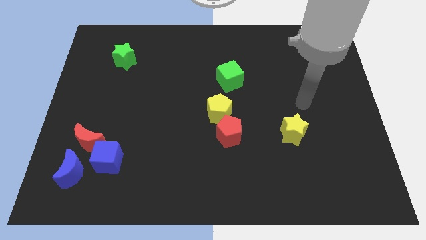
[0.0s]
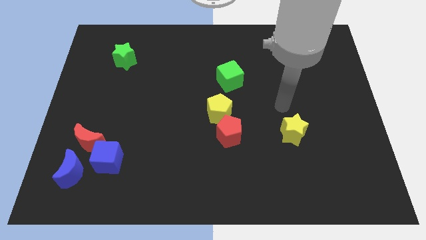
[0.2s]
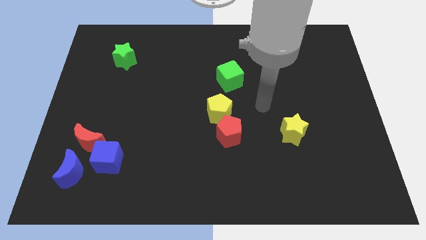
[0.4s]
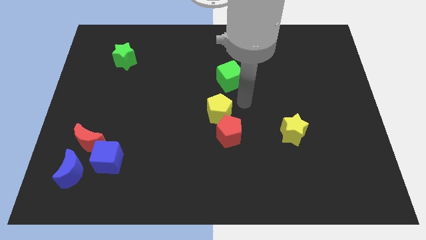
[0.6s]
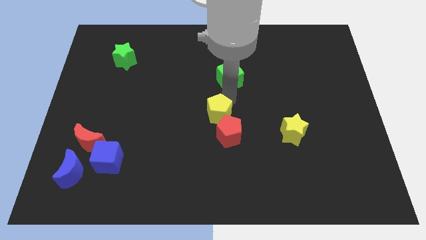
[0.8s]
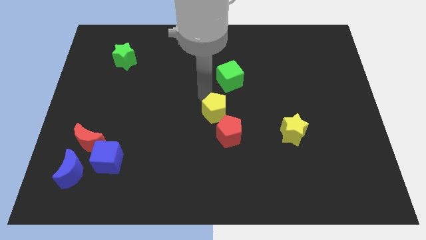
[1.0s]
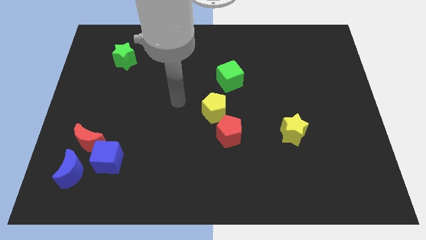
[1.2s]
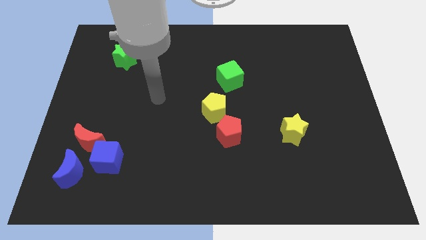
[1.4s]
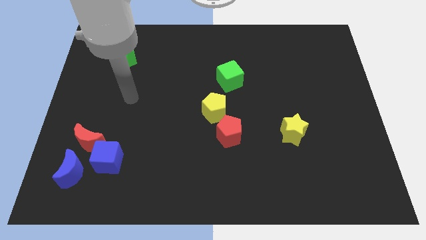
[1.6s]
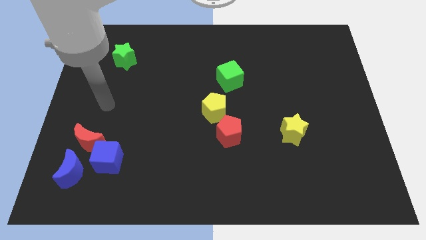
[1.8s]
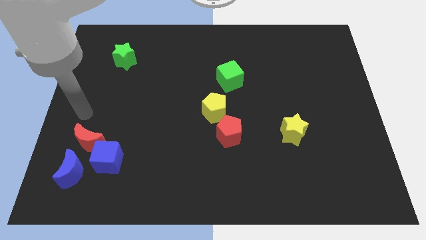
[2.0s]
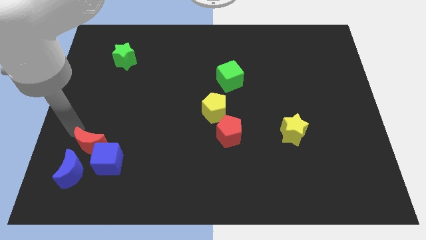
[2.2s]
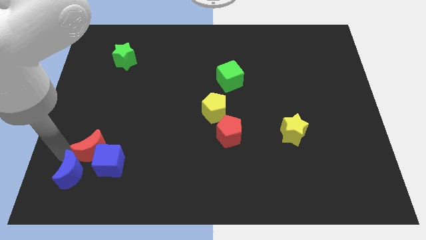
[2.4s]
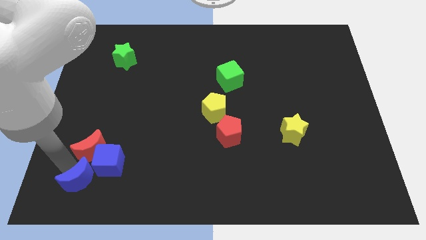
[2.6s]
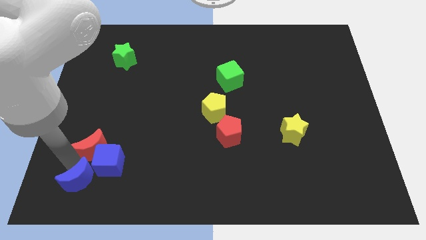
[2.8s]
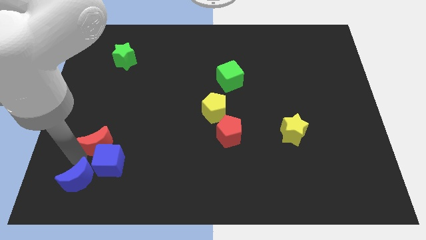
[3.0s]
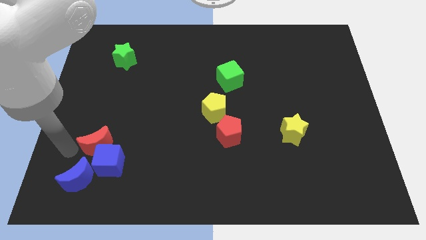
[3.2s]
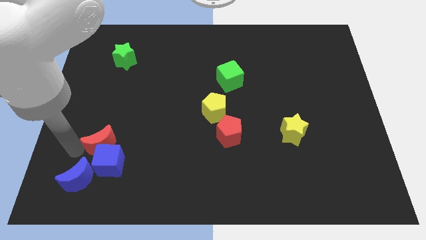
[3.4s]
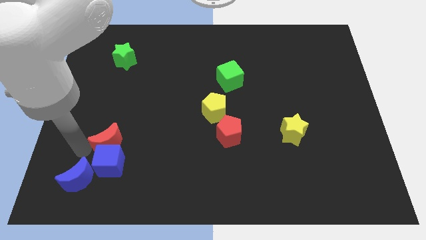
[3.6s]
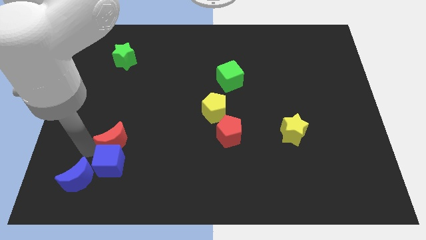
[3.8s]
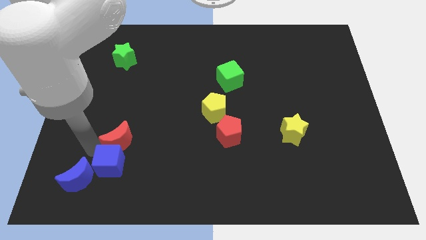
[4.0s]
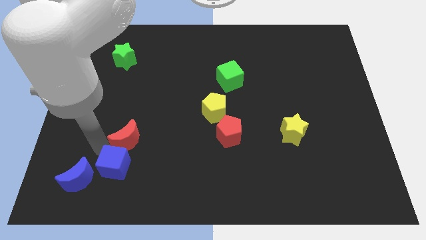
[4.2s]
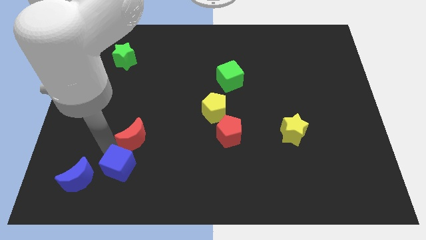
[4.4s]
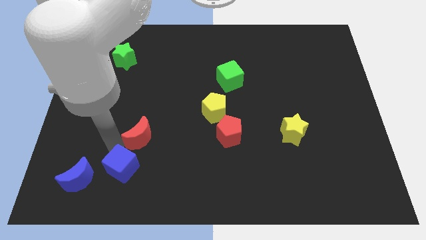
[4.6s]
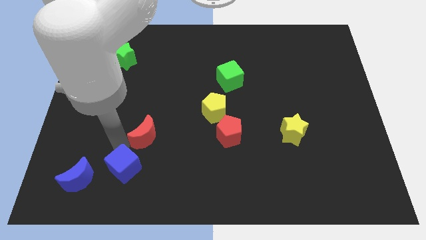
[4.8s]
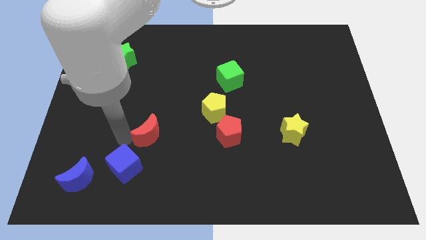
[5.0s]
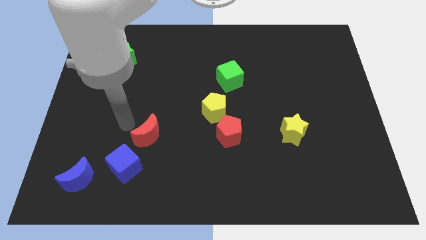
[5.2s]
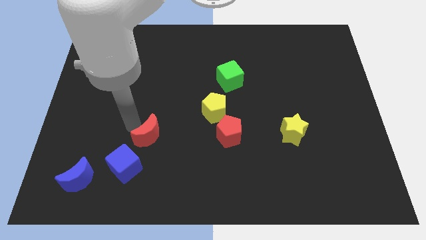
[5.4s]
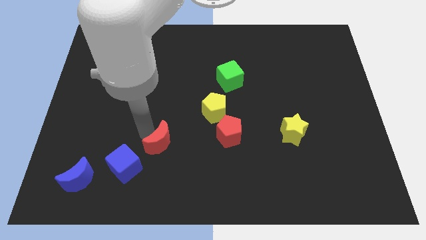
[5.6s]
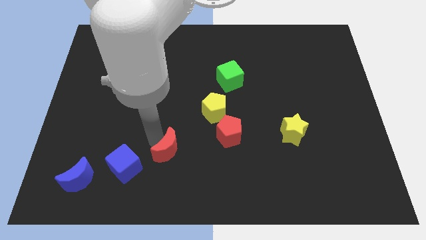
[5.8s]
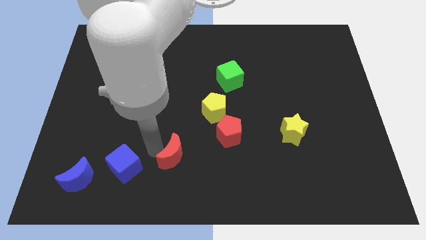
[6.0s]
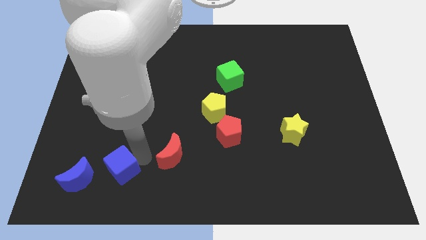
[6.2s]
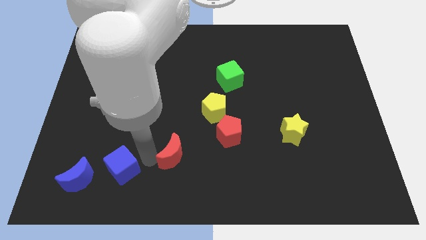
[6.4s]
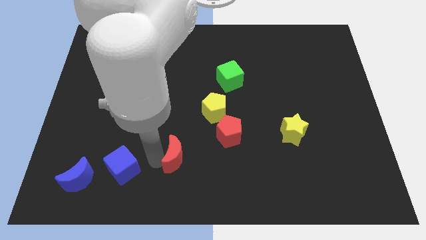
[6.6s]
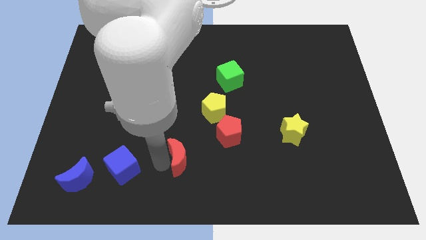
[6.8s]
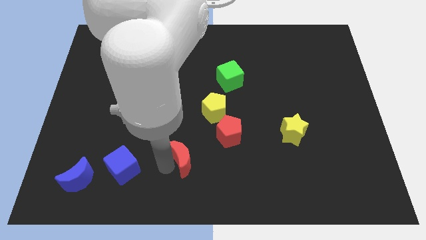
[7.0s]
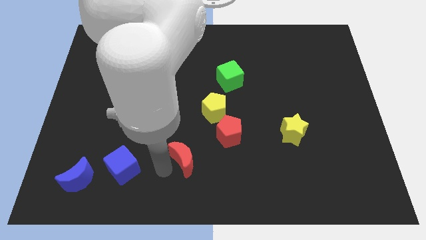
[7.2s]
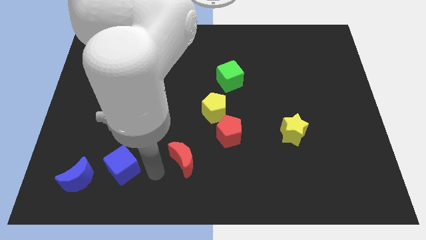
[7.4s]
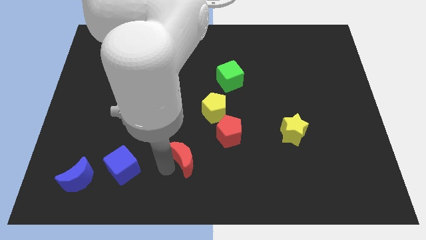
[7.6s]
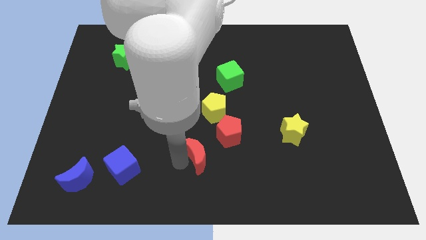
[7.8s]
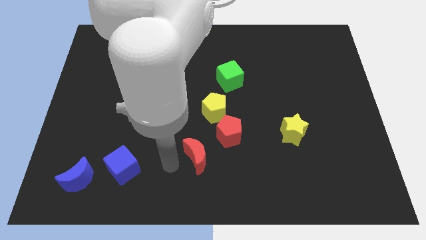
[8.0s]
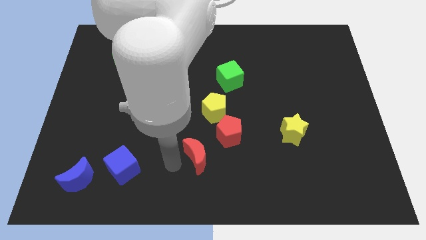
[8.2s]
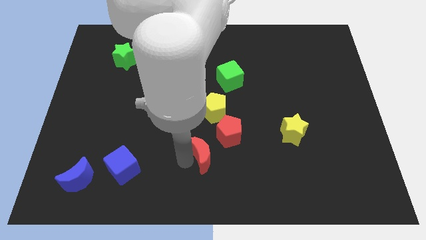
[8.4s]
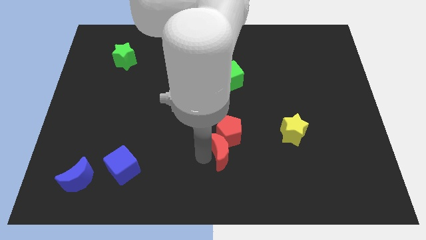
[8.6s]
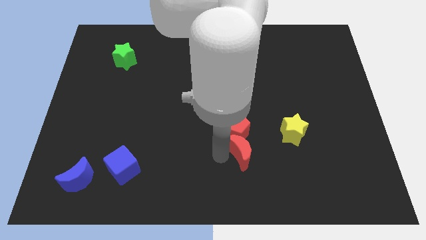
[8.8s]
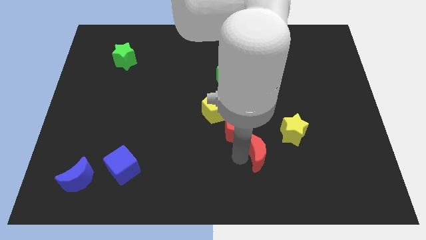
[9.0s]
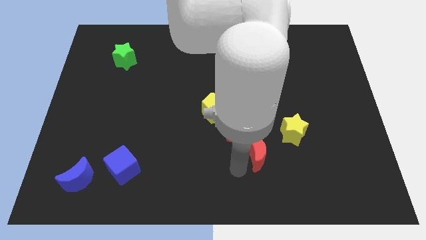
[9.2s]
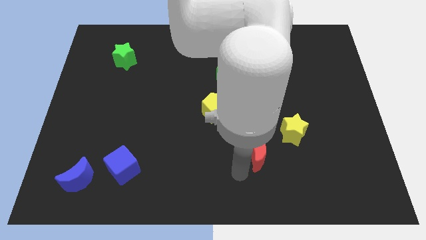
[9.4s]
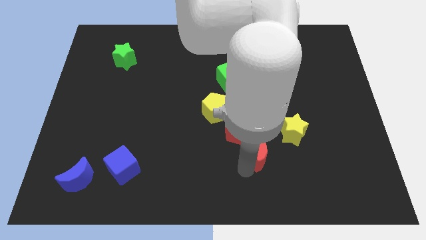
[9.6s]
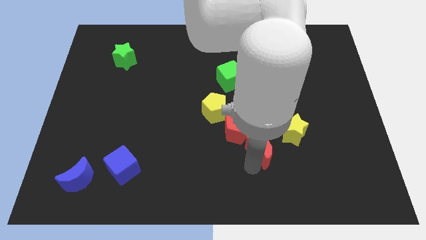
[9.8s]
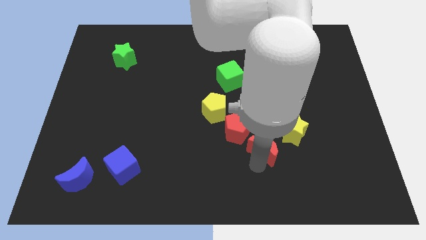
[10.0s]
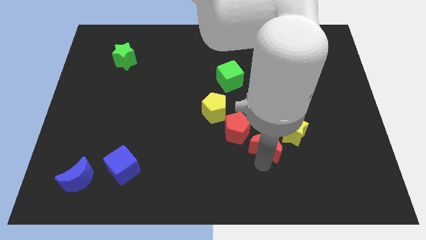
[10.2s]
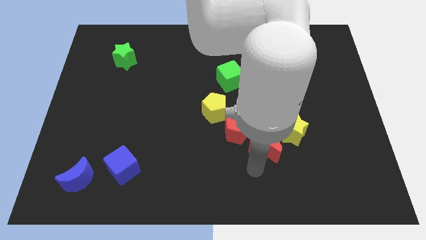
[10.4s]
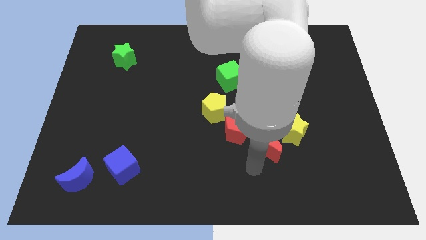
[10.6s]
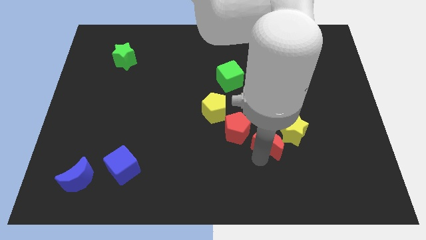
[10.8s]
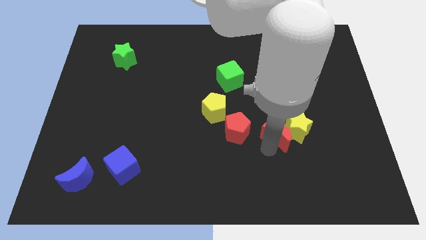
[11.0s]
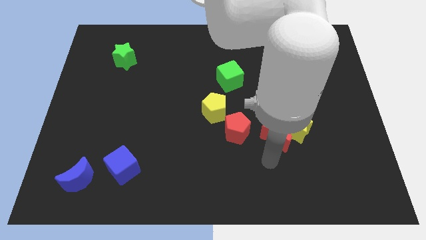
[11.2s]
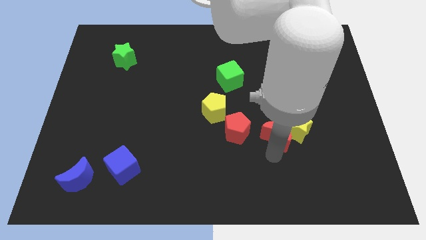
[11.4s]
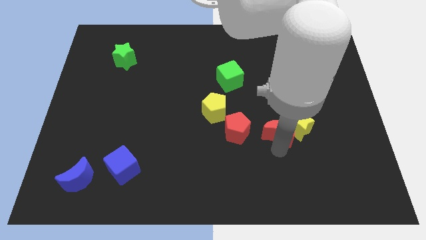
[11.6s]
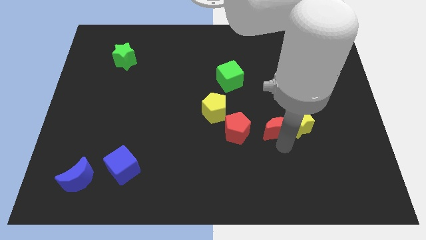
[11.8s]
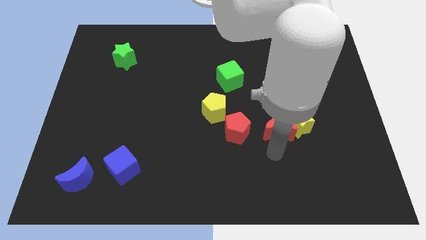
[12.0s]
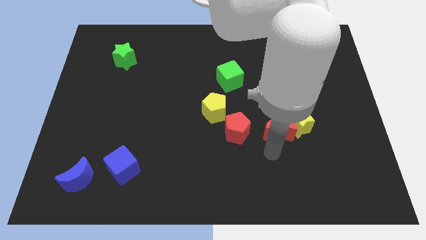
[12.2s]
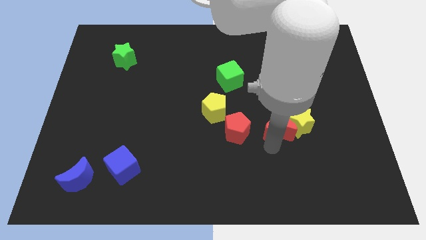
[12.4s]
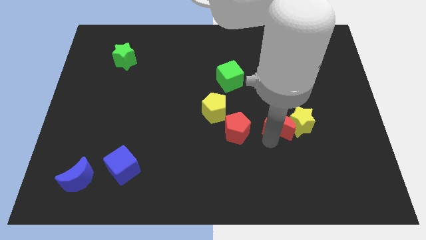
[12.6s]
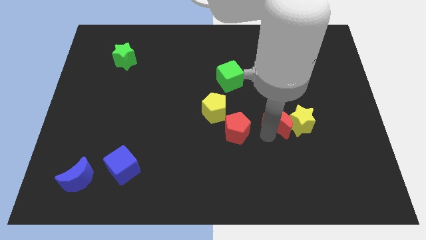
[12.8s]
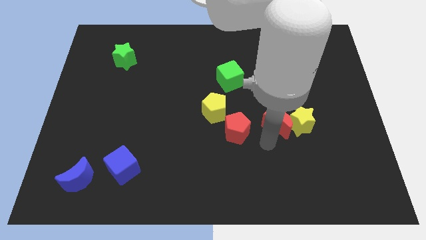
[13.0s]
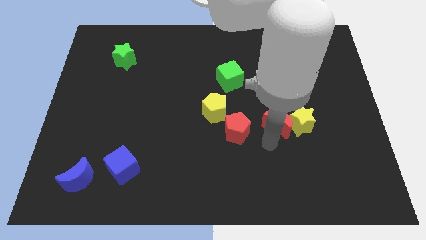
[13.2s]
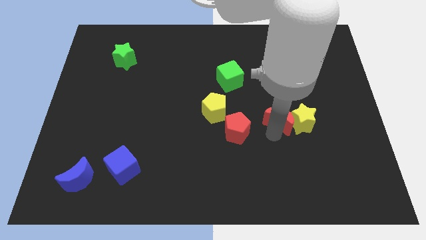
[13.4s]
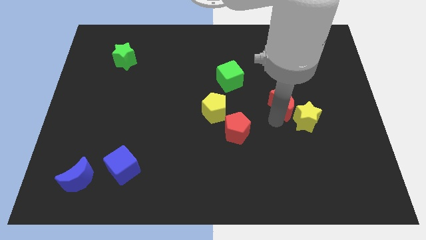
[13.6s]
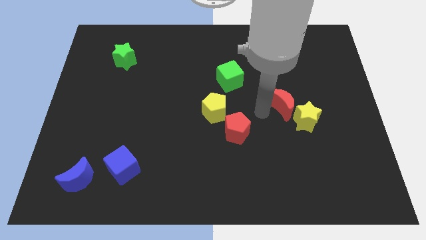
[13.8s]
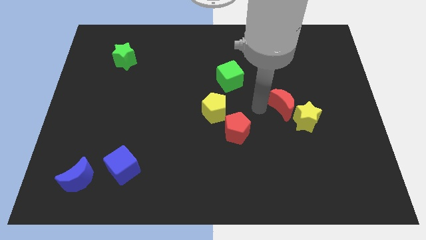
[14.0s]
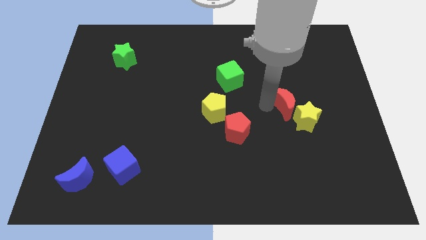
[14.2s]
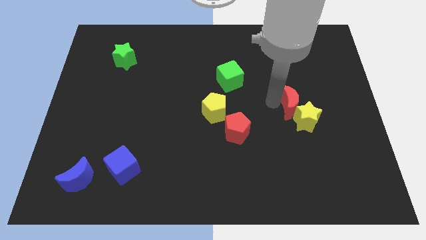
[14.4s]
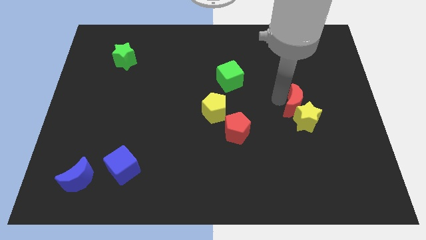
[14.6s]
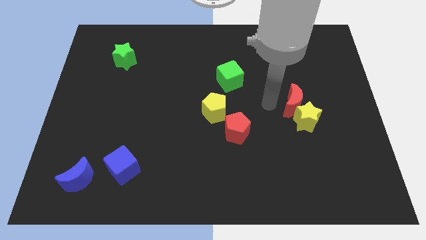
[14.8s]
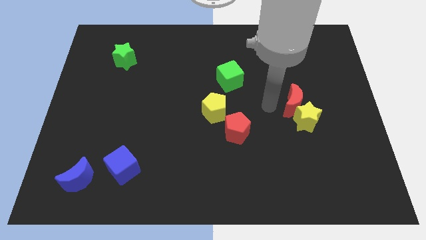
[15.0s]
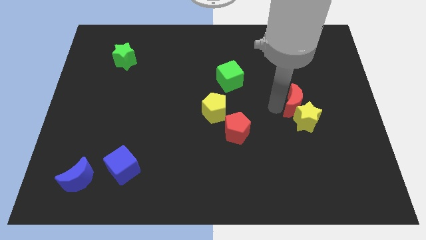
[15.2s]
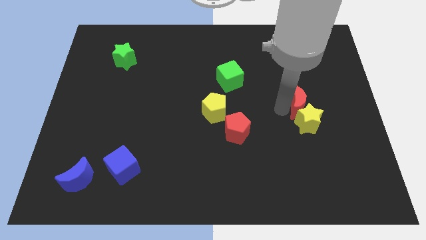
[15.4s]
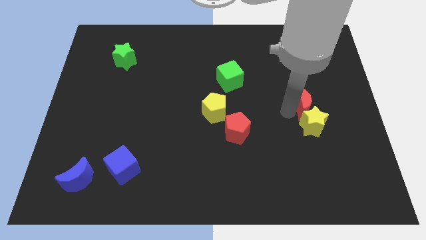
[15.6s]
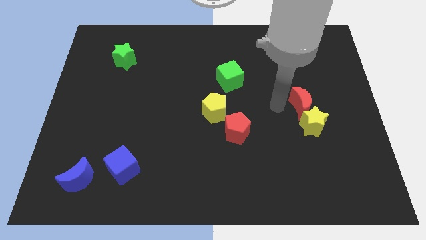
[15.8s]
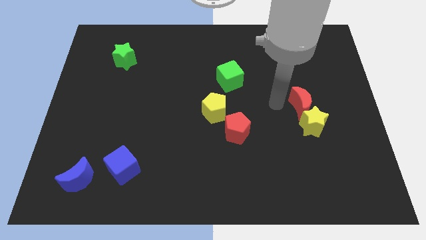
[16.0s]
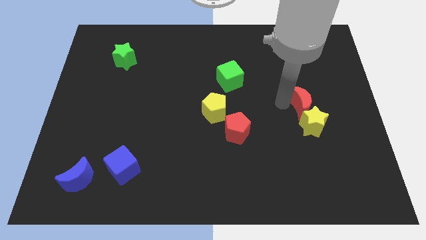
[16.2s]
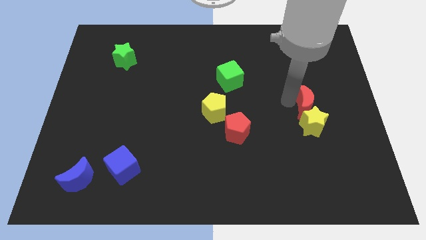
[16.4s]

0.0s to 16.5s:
push the red moon to the top right of the yellow star
